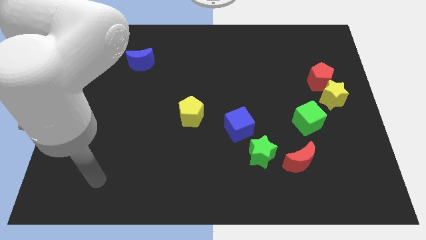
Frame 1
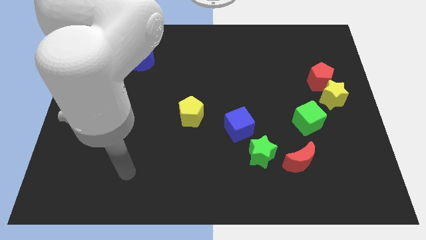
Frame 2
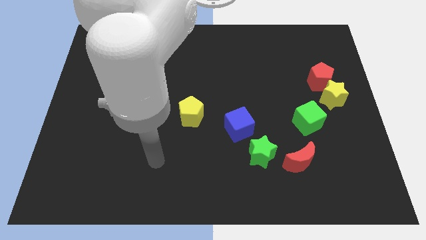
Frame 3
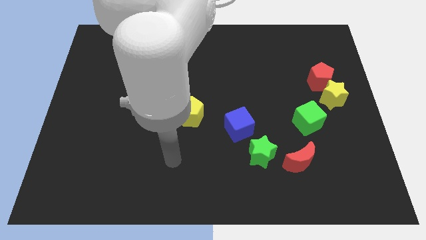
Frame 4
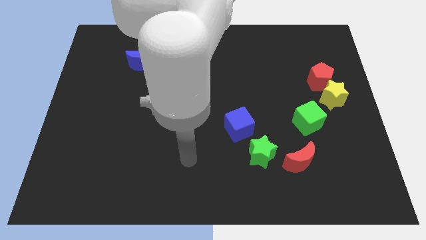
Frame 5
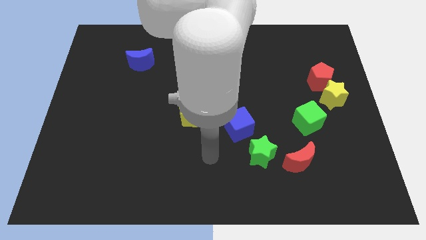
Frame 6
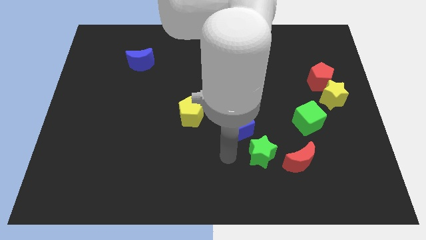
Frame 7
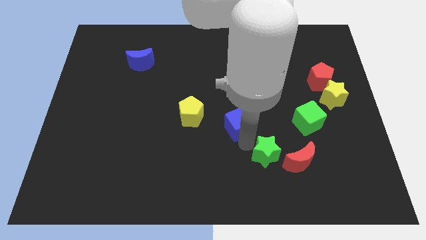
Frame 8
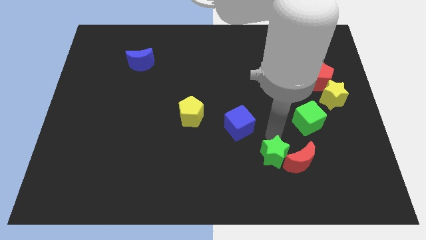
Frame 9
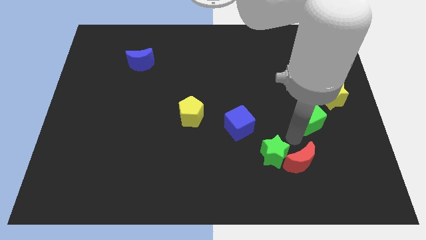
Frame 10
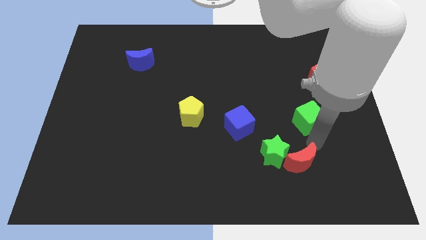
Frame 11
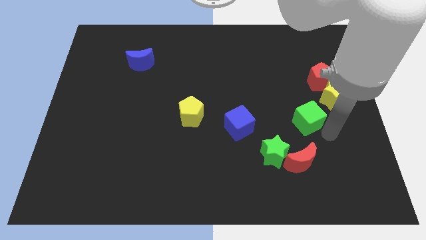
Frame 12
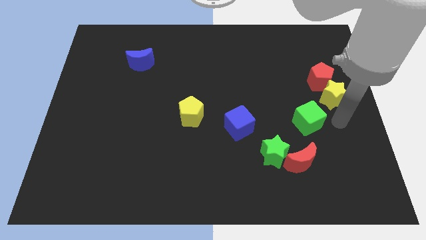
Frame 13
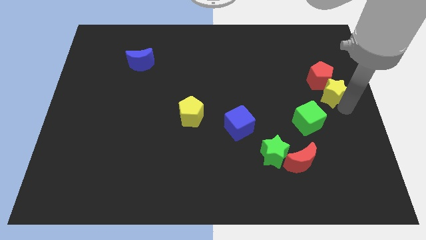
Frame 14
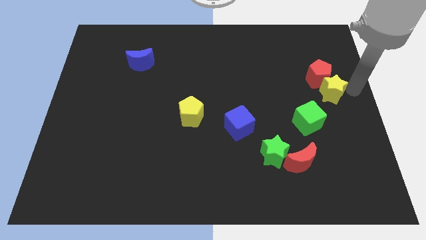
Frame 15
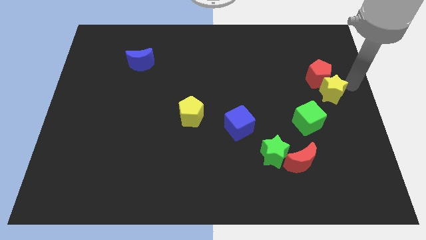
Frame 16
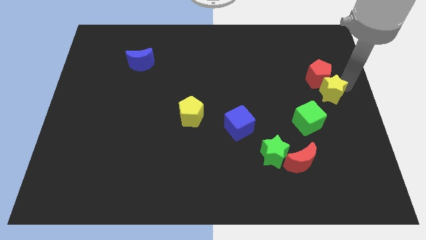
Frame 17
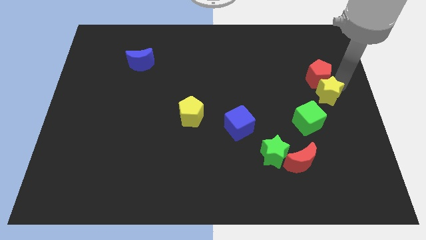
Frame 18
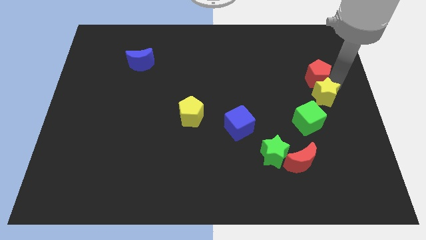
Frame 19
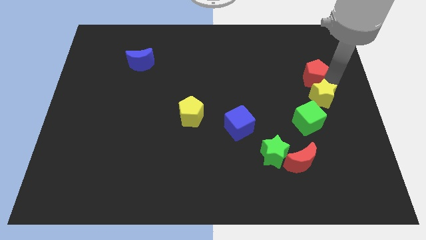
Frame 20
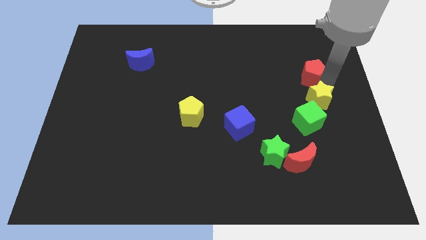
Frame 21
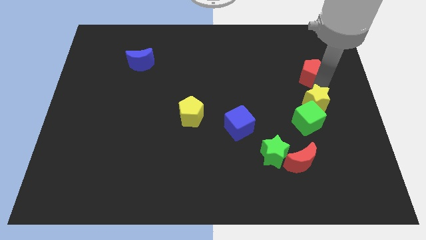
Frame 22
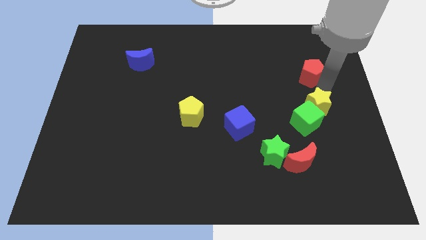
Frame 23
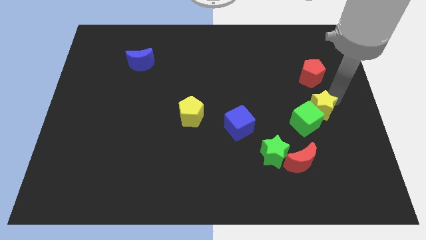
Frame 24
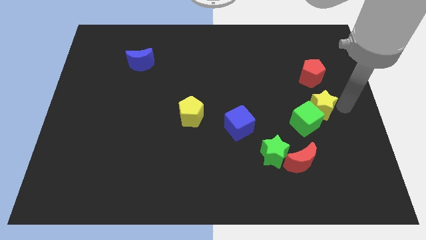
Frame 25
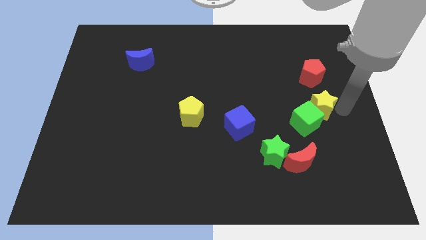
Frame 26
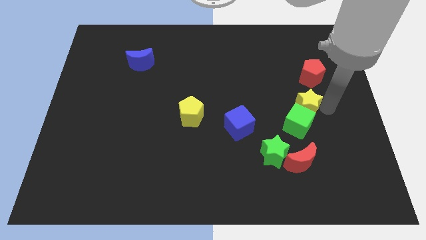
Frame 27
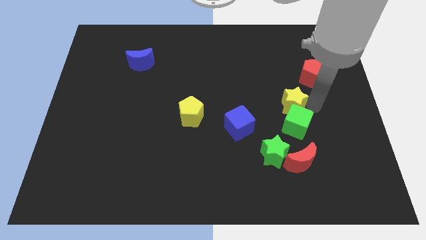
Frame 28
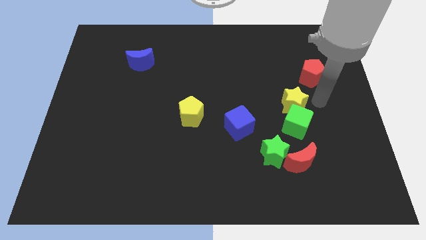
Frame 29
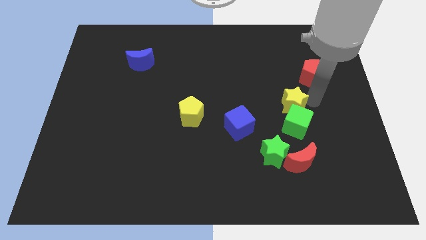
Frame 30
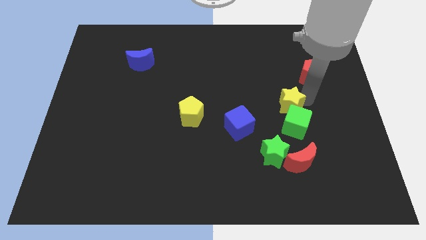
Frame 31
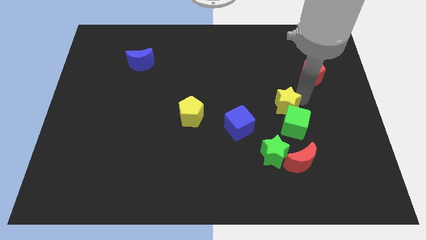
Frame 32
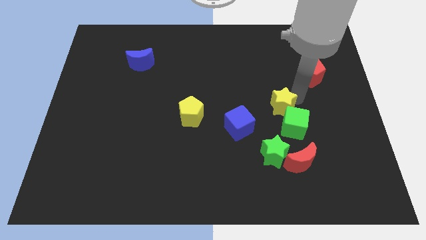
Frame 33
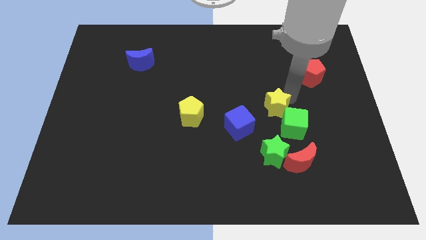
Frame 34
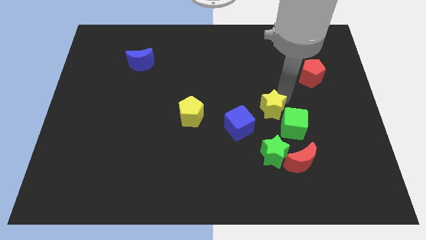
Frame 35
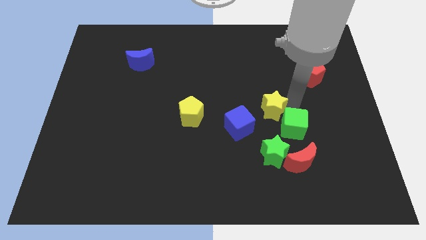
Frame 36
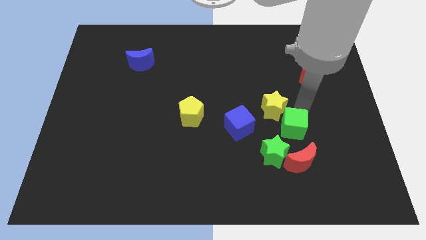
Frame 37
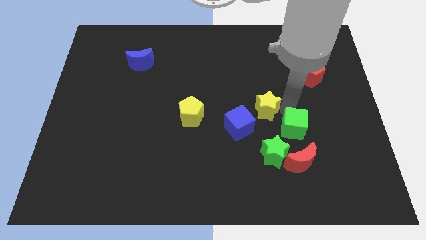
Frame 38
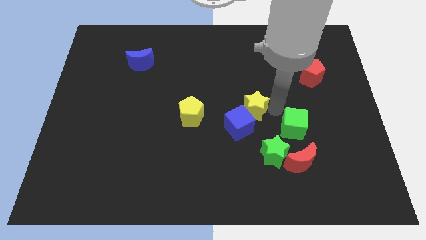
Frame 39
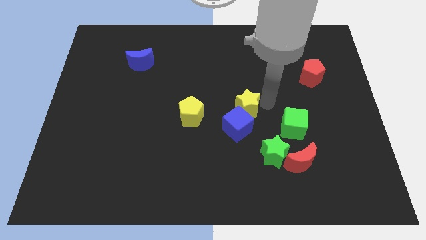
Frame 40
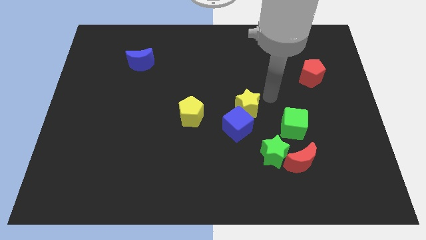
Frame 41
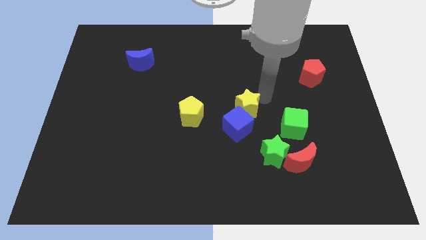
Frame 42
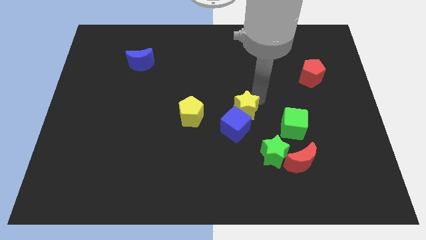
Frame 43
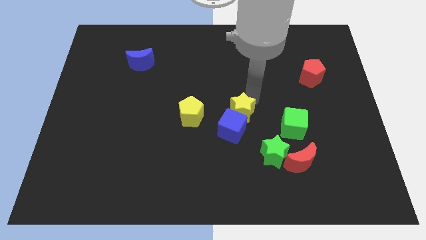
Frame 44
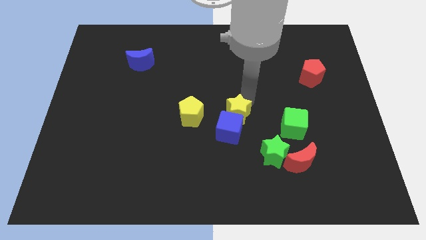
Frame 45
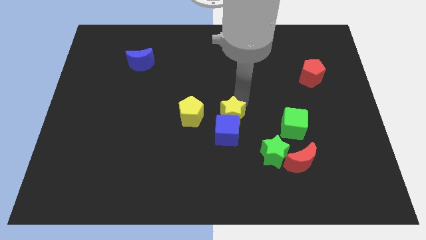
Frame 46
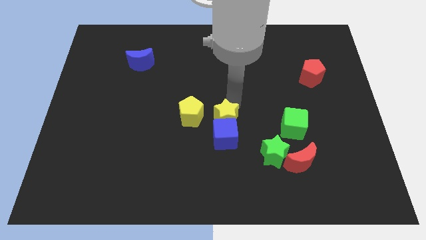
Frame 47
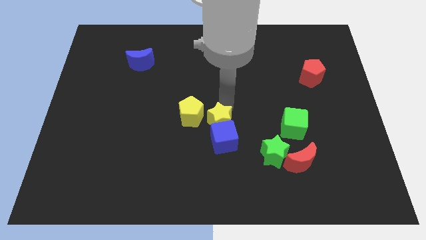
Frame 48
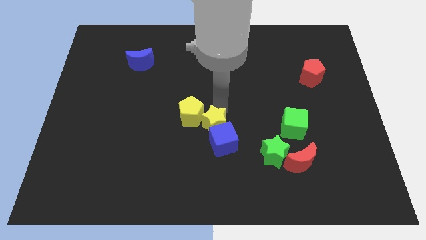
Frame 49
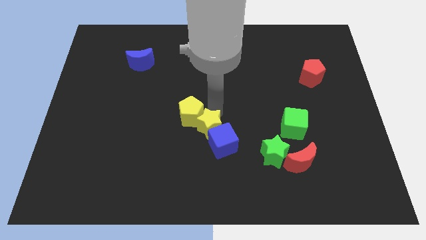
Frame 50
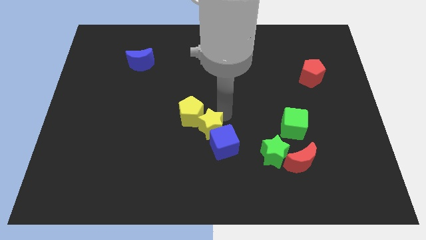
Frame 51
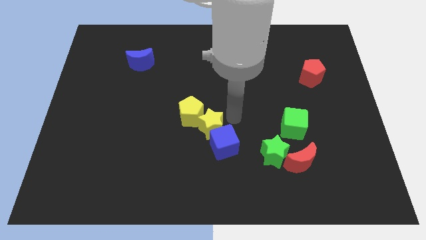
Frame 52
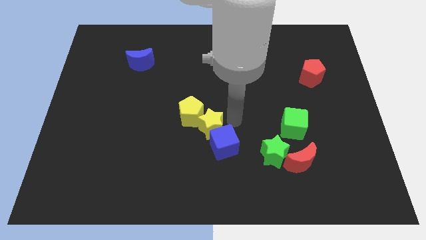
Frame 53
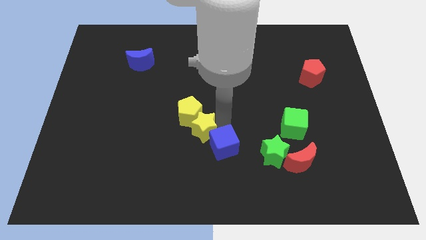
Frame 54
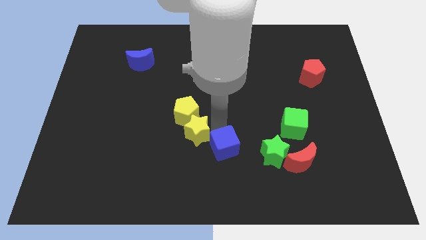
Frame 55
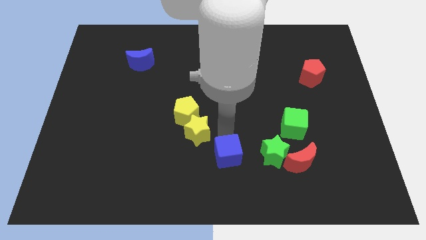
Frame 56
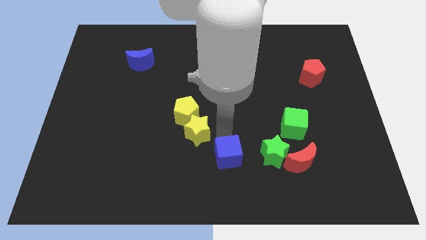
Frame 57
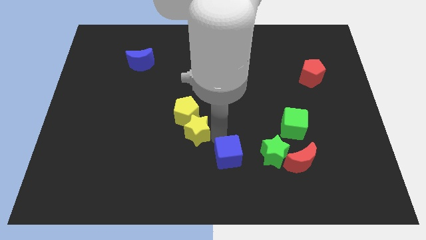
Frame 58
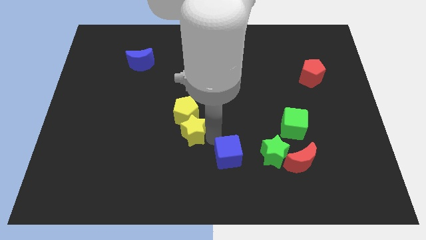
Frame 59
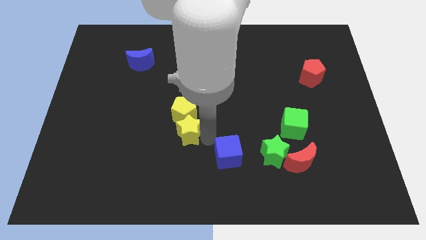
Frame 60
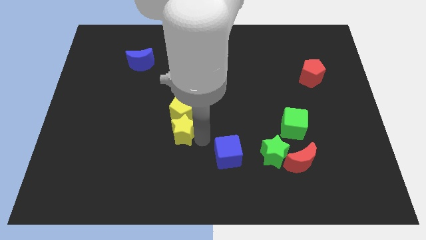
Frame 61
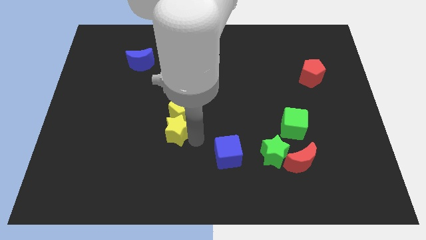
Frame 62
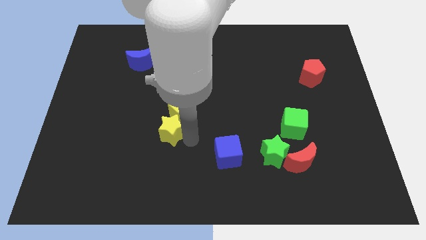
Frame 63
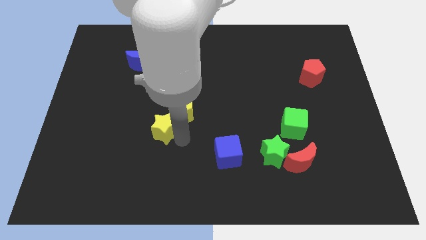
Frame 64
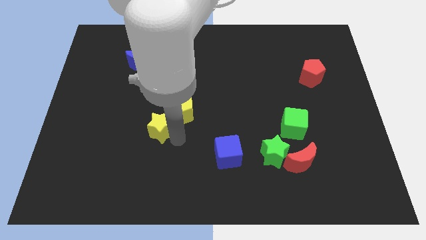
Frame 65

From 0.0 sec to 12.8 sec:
move the yellow star to the left side of the yellow pentagon
